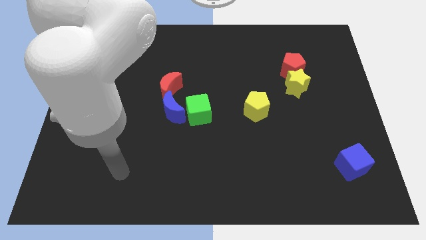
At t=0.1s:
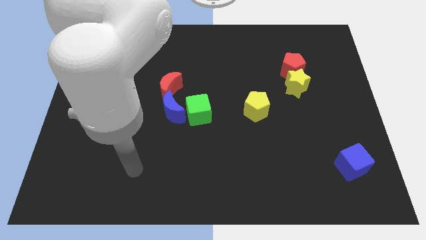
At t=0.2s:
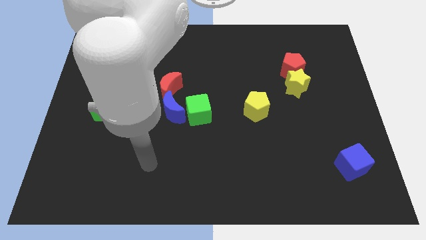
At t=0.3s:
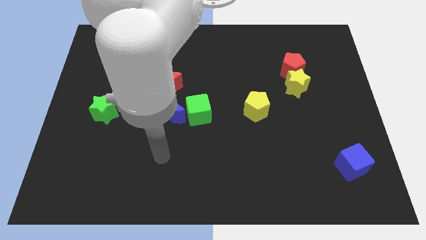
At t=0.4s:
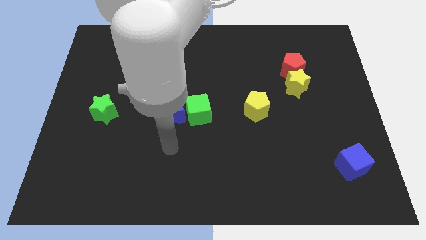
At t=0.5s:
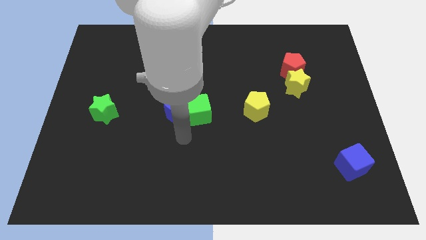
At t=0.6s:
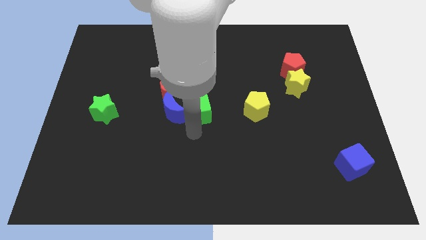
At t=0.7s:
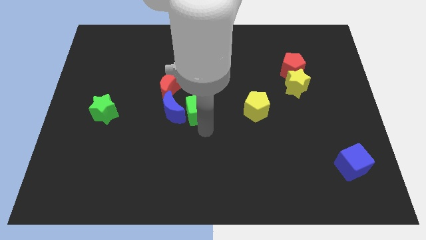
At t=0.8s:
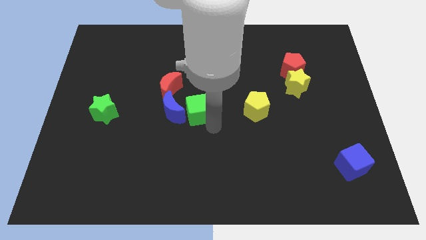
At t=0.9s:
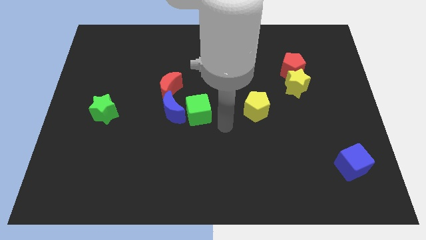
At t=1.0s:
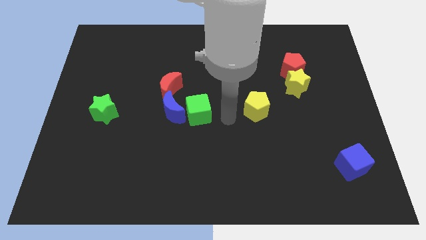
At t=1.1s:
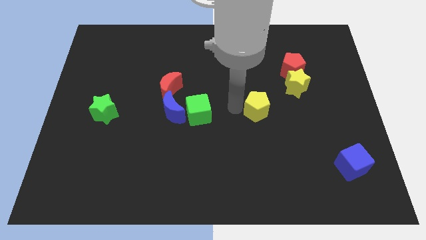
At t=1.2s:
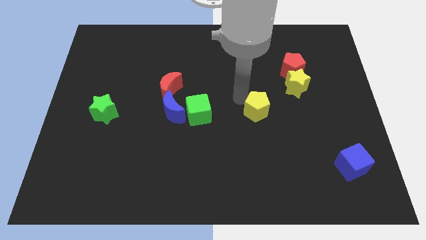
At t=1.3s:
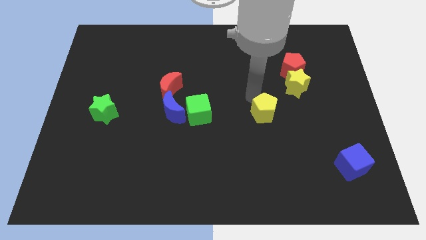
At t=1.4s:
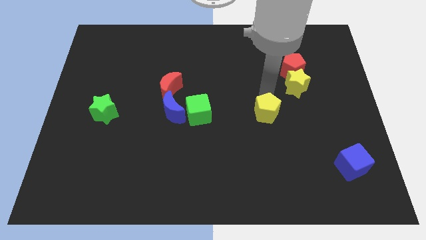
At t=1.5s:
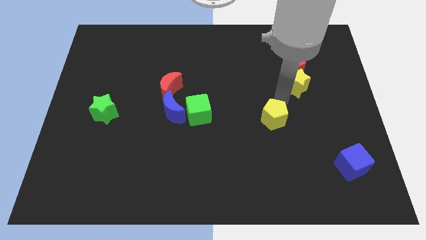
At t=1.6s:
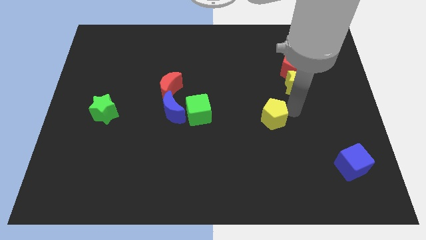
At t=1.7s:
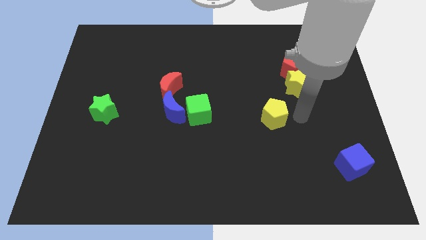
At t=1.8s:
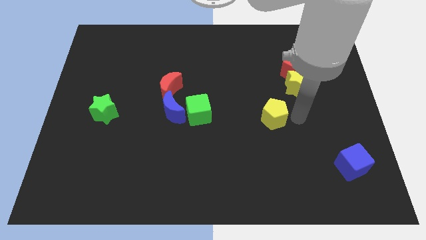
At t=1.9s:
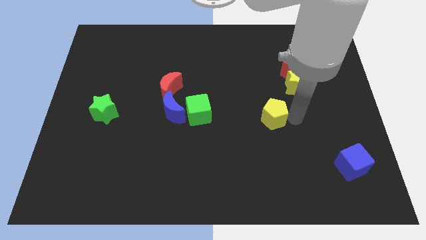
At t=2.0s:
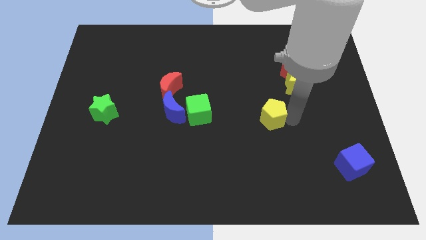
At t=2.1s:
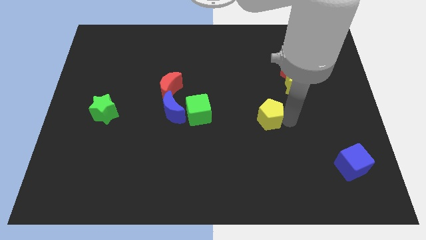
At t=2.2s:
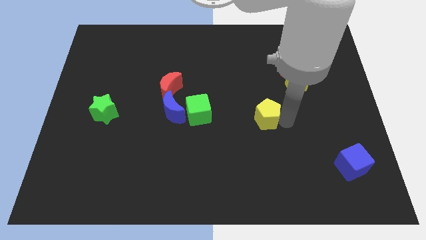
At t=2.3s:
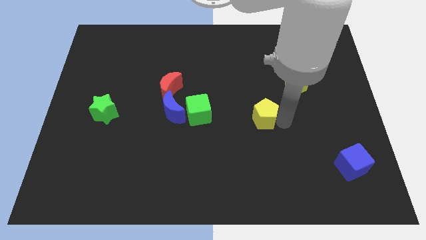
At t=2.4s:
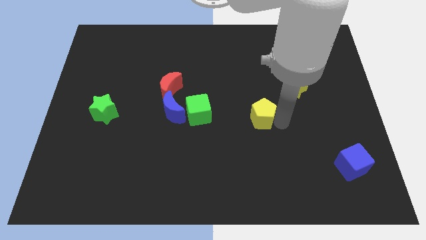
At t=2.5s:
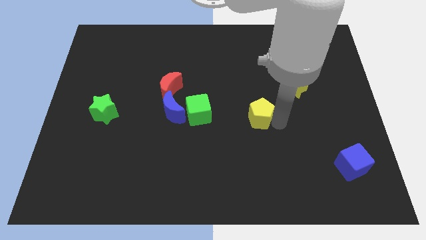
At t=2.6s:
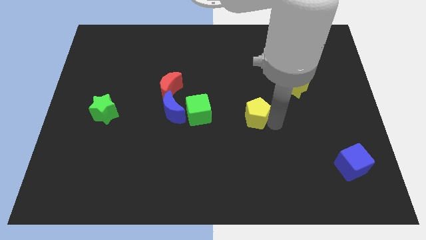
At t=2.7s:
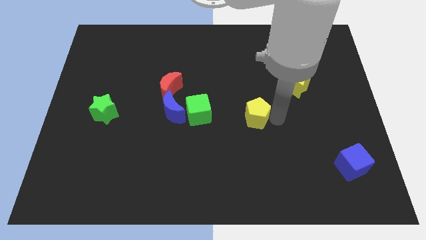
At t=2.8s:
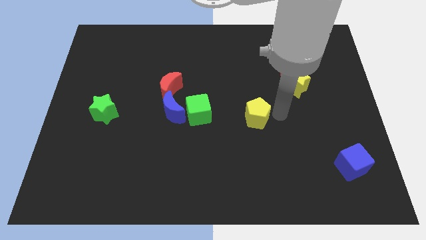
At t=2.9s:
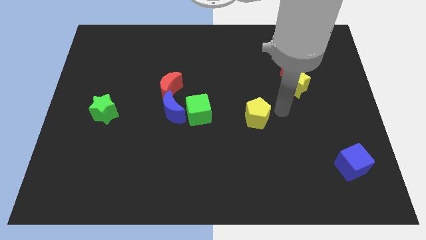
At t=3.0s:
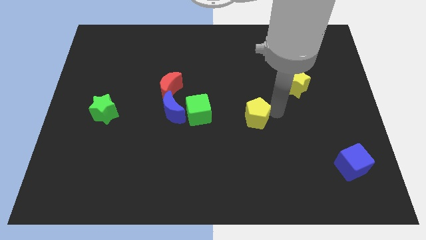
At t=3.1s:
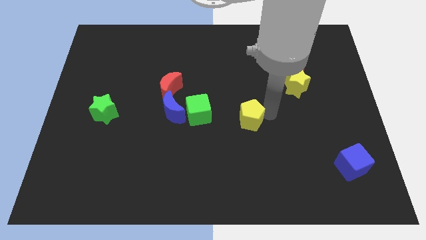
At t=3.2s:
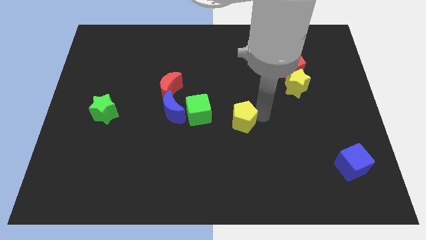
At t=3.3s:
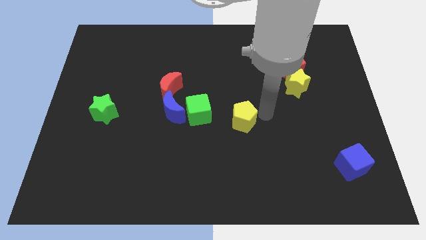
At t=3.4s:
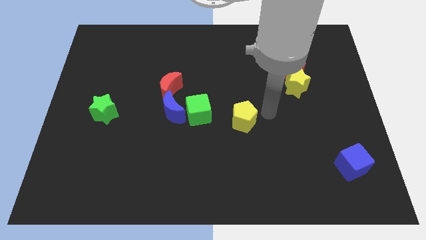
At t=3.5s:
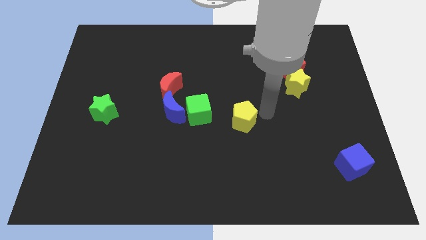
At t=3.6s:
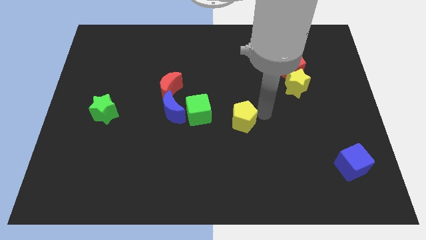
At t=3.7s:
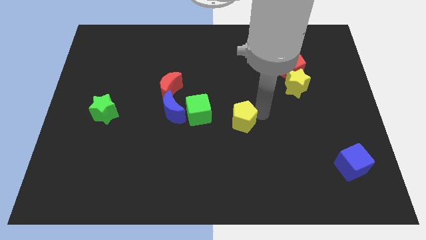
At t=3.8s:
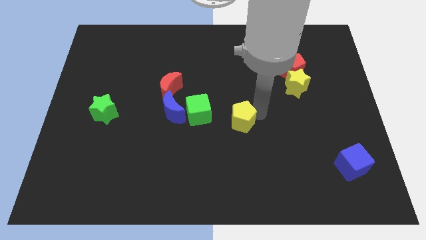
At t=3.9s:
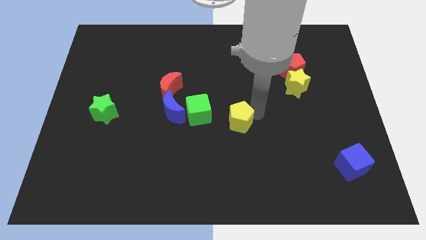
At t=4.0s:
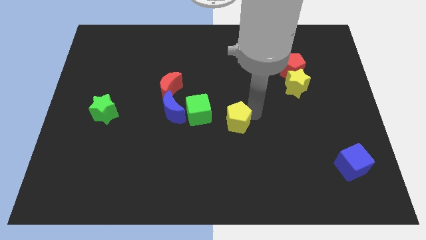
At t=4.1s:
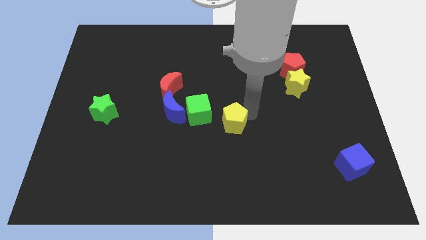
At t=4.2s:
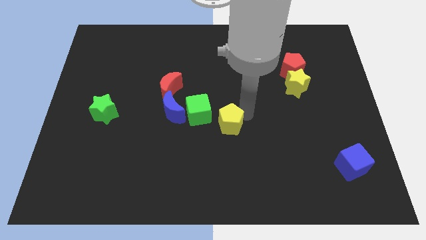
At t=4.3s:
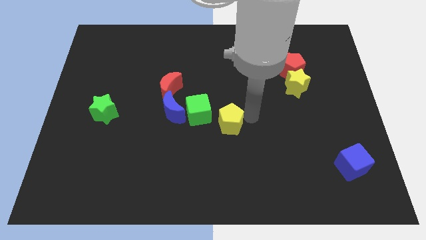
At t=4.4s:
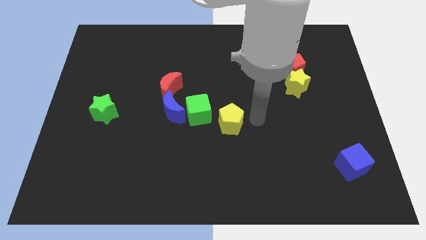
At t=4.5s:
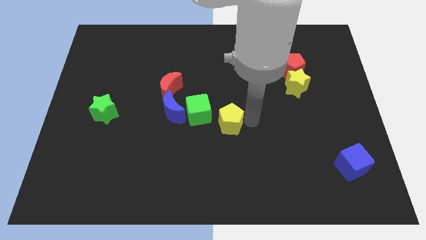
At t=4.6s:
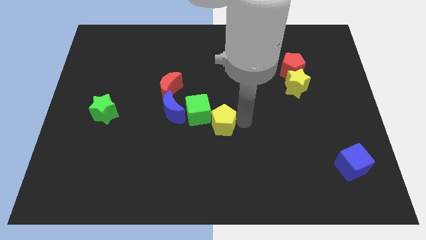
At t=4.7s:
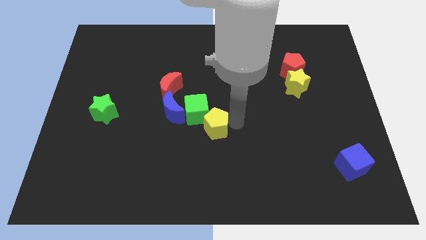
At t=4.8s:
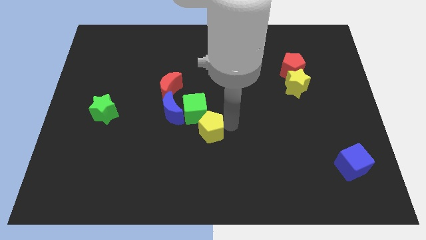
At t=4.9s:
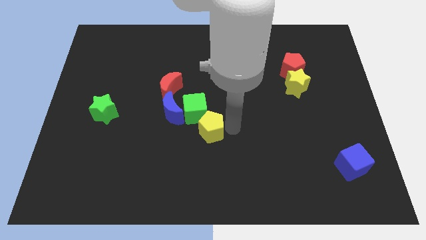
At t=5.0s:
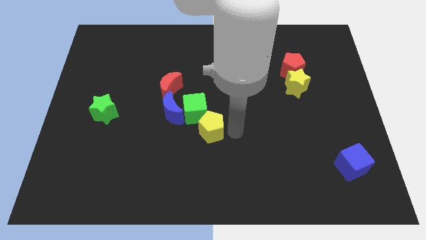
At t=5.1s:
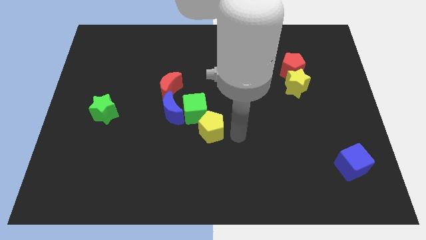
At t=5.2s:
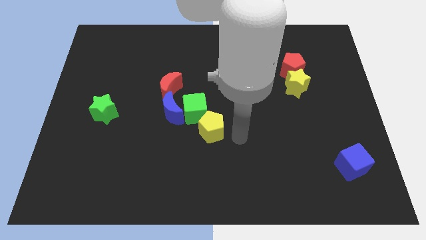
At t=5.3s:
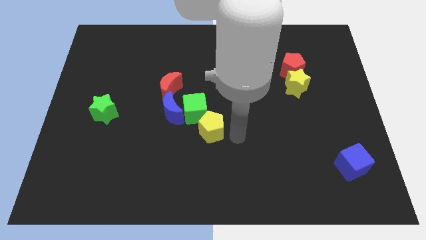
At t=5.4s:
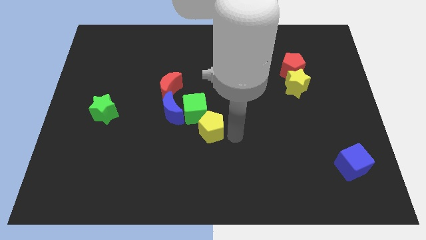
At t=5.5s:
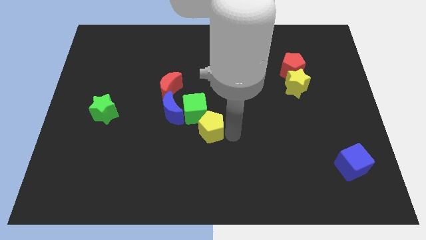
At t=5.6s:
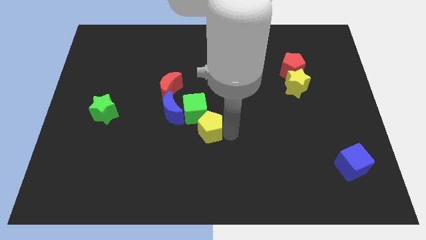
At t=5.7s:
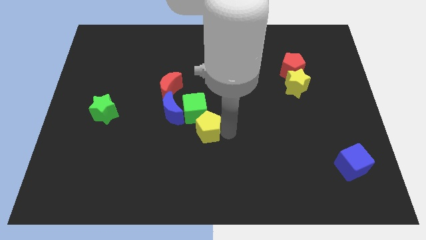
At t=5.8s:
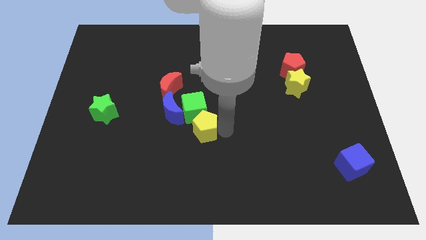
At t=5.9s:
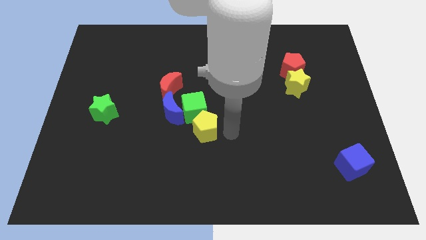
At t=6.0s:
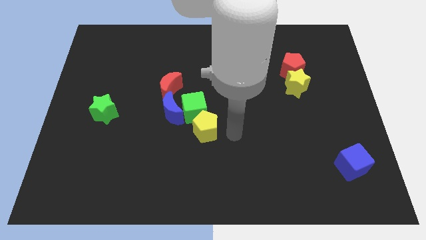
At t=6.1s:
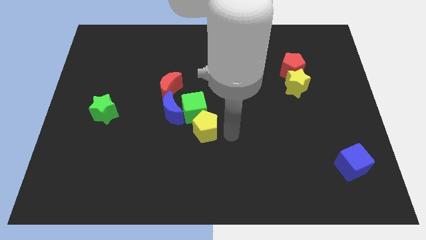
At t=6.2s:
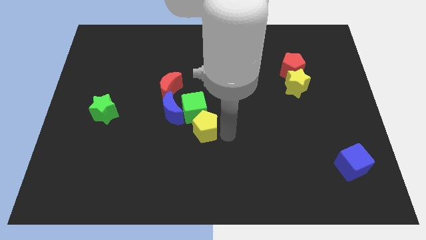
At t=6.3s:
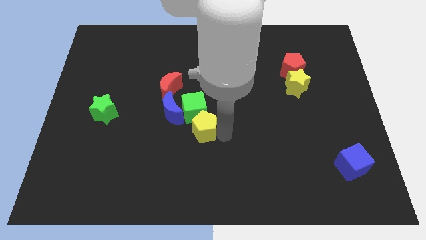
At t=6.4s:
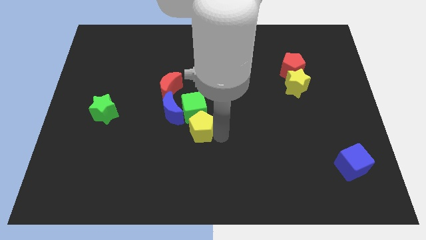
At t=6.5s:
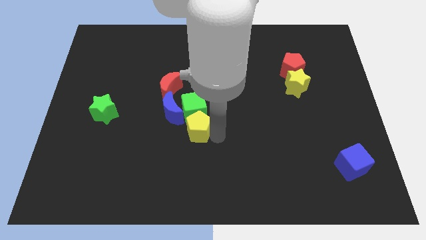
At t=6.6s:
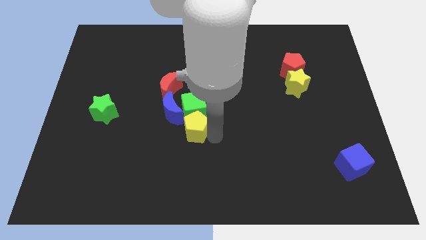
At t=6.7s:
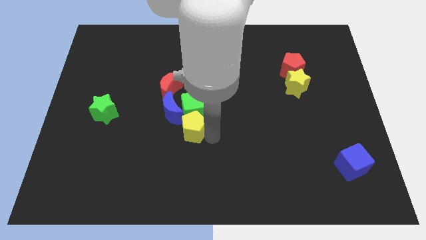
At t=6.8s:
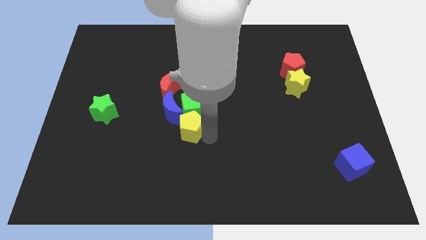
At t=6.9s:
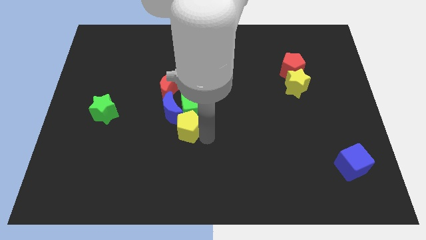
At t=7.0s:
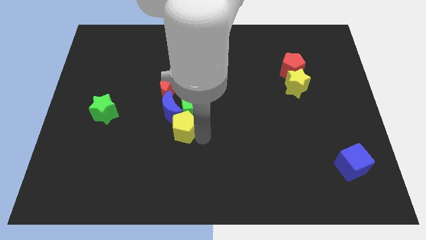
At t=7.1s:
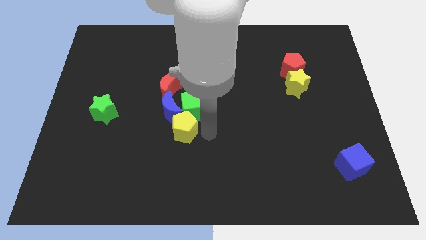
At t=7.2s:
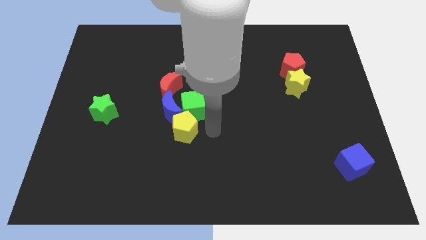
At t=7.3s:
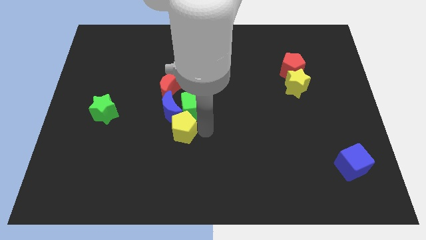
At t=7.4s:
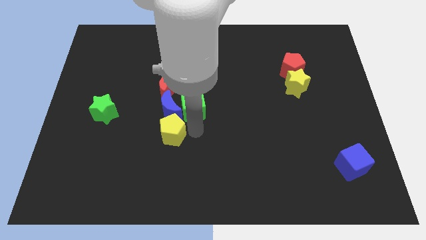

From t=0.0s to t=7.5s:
push the yellow pentagon to the bottom left of the blue moon
